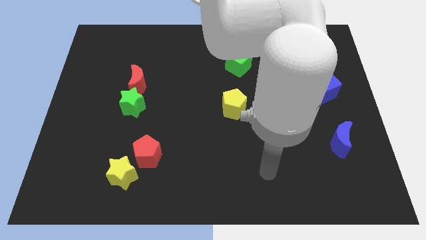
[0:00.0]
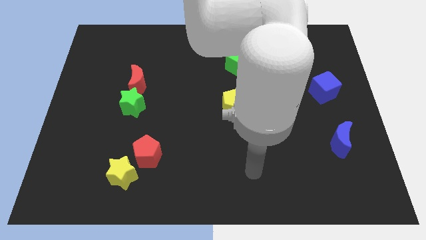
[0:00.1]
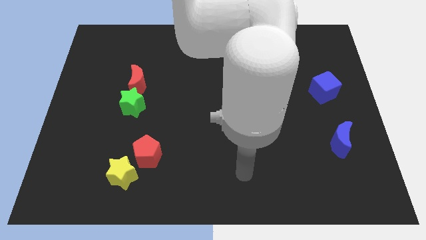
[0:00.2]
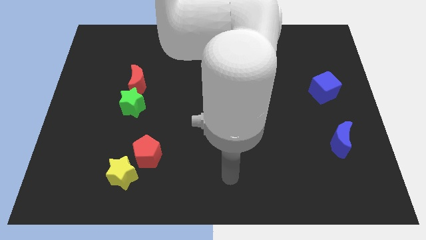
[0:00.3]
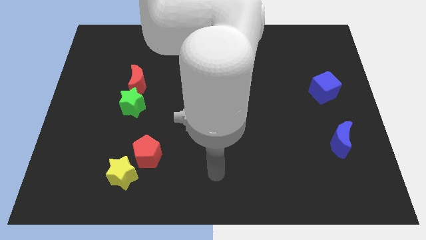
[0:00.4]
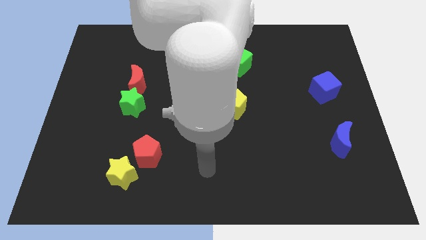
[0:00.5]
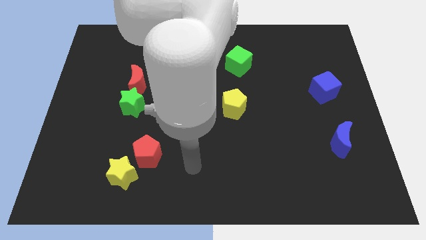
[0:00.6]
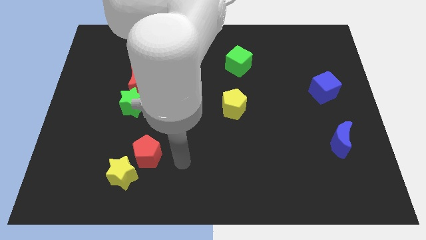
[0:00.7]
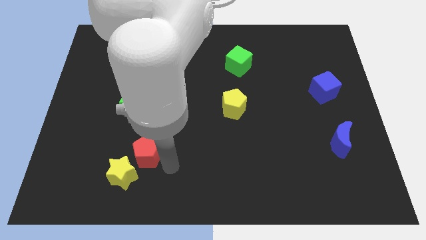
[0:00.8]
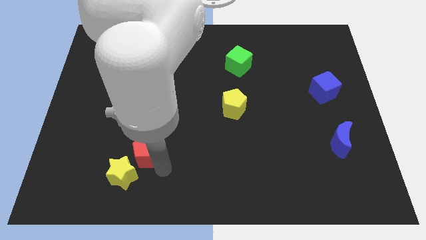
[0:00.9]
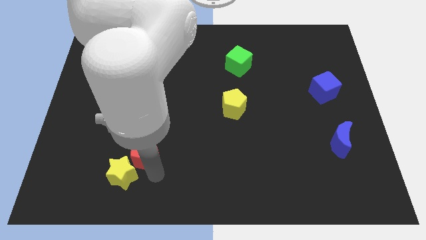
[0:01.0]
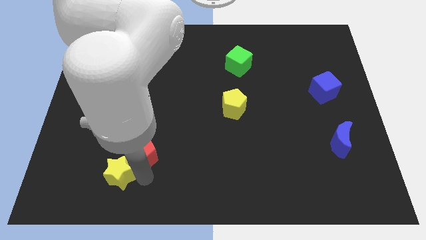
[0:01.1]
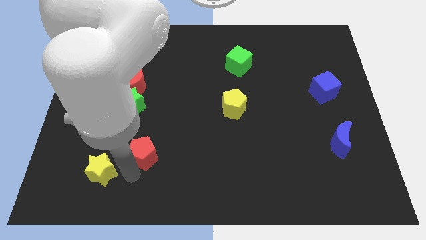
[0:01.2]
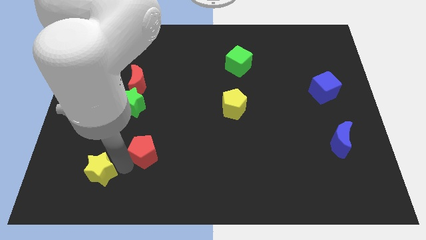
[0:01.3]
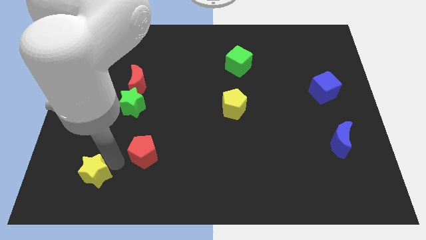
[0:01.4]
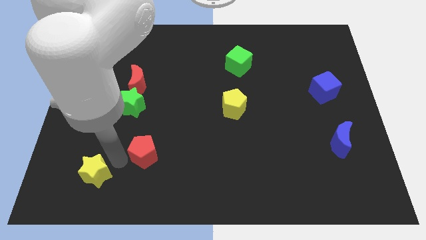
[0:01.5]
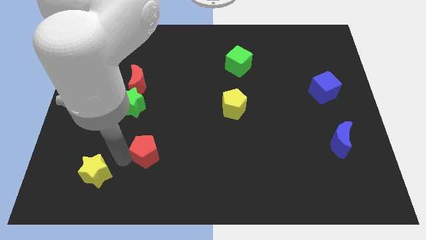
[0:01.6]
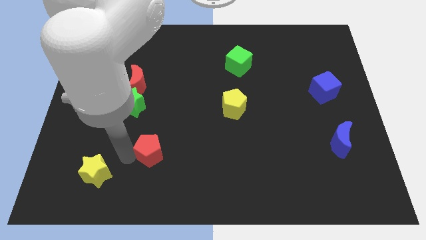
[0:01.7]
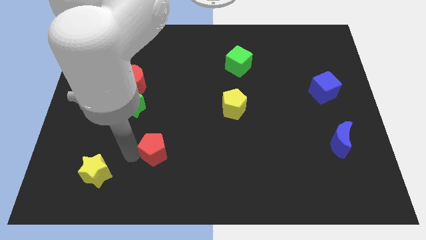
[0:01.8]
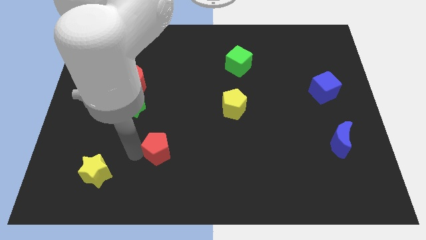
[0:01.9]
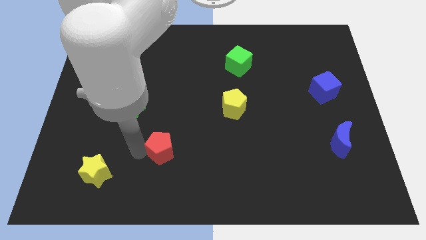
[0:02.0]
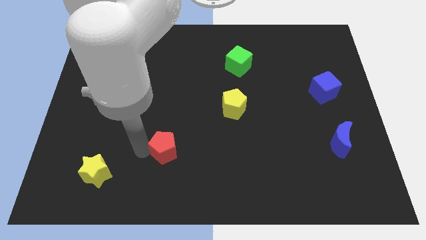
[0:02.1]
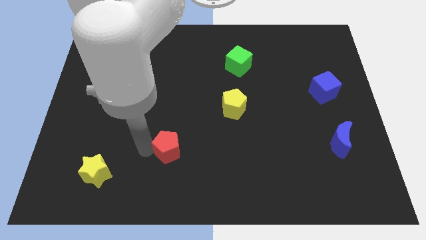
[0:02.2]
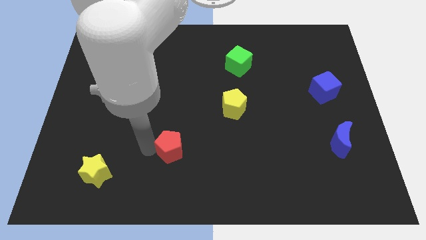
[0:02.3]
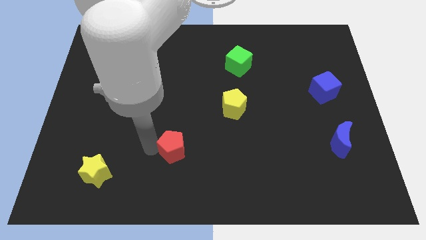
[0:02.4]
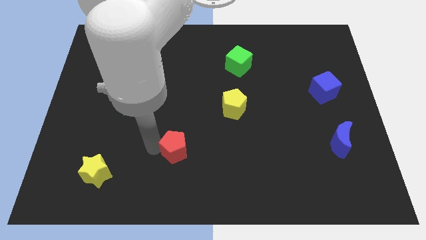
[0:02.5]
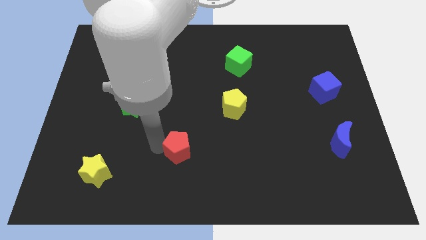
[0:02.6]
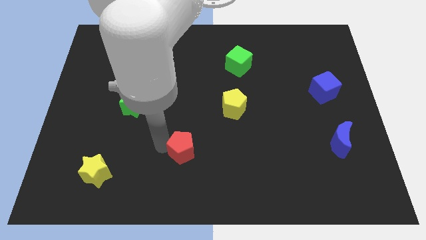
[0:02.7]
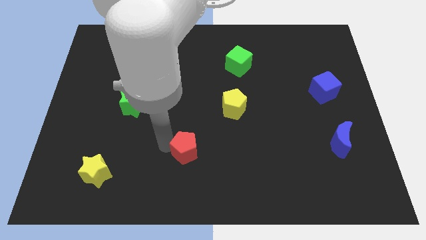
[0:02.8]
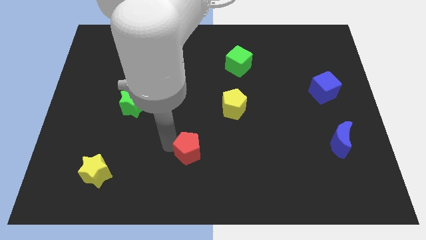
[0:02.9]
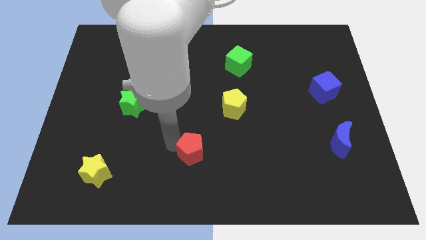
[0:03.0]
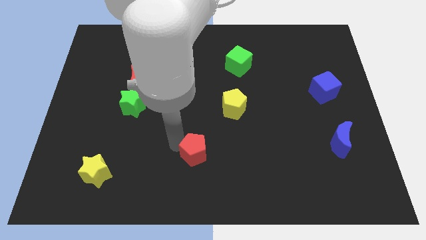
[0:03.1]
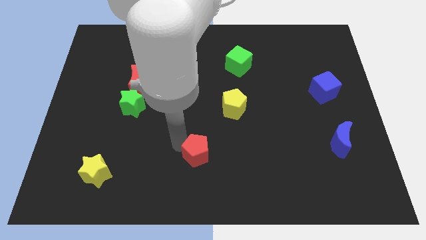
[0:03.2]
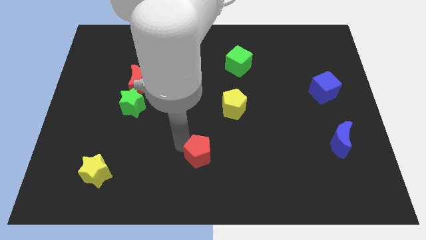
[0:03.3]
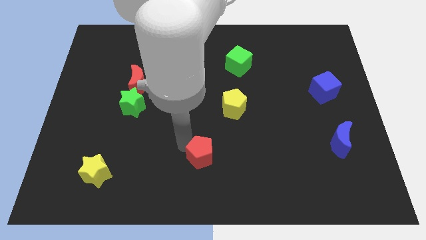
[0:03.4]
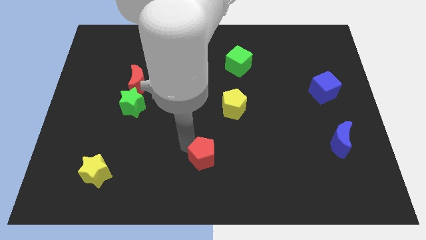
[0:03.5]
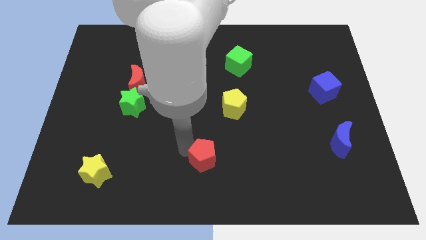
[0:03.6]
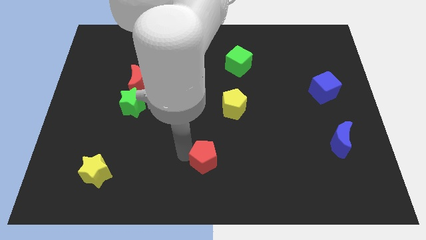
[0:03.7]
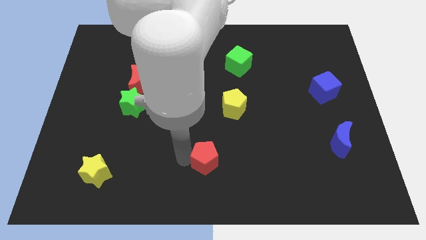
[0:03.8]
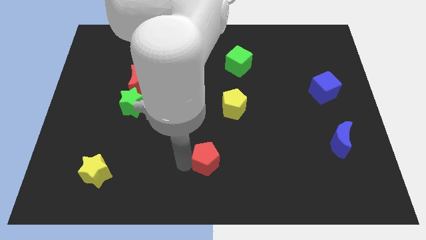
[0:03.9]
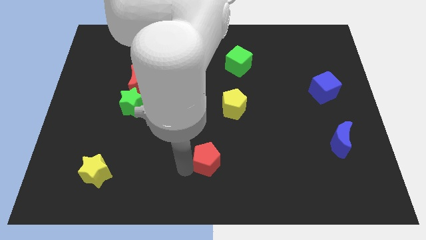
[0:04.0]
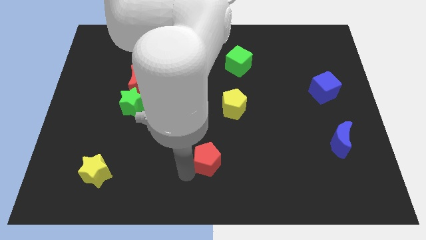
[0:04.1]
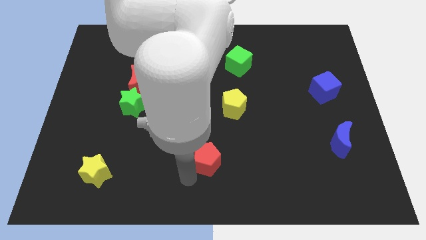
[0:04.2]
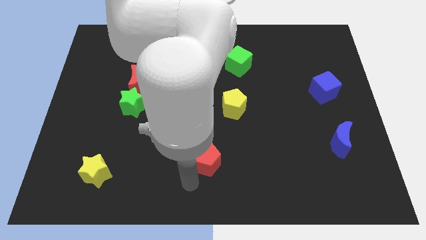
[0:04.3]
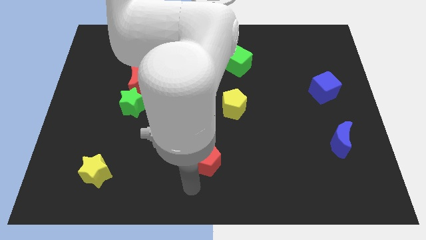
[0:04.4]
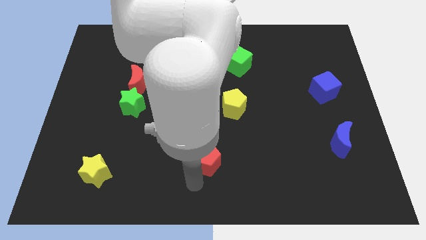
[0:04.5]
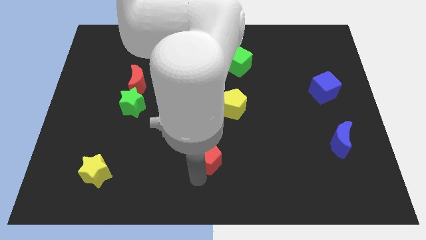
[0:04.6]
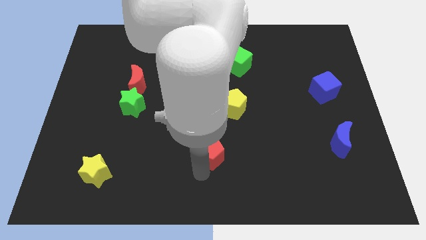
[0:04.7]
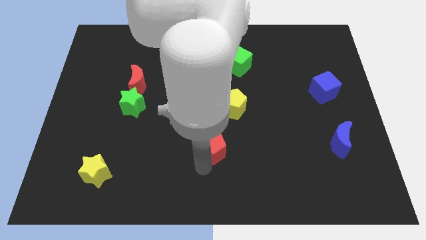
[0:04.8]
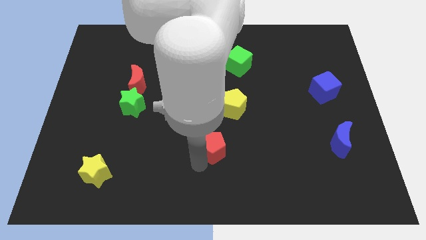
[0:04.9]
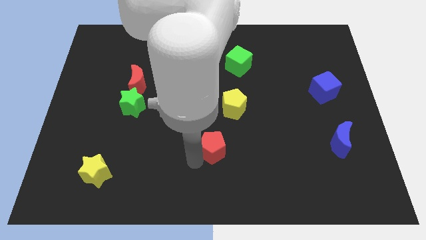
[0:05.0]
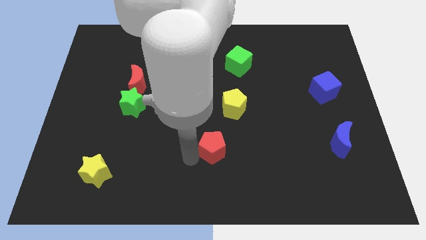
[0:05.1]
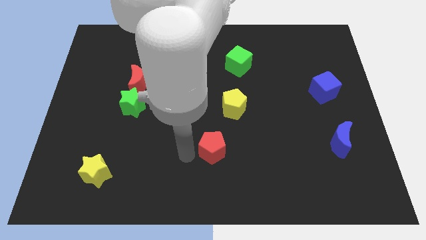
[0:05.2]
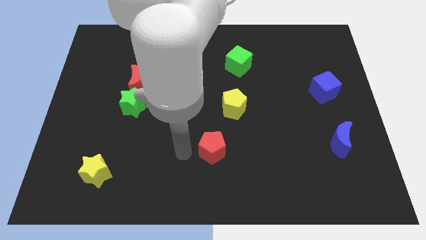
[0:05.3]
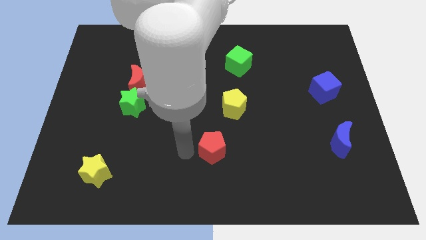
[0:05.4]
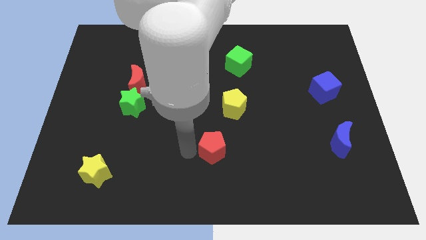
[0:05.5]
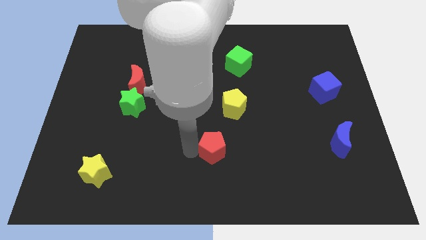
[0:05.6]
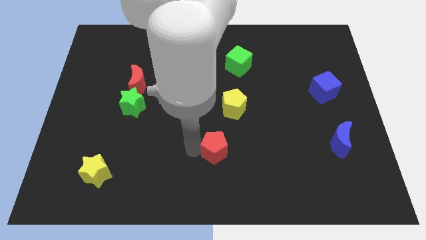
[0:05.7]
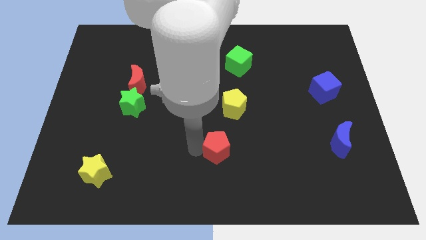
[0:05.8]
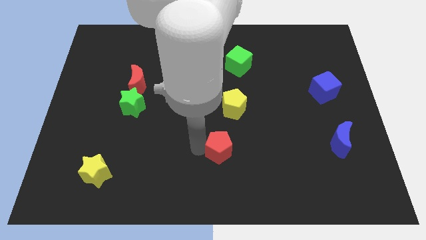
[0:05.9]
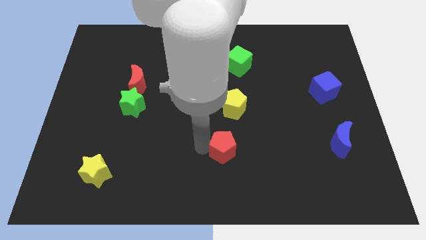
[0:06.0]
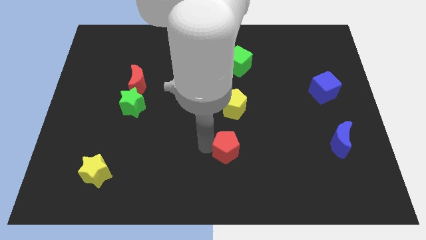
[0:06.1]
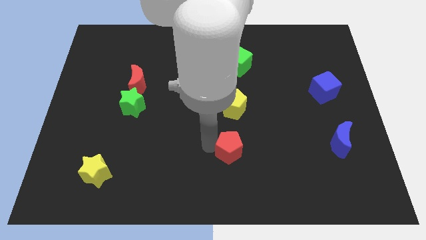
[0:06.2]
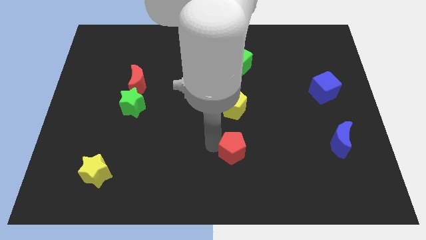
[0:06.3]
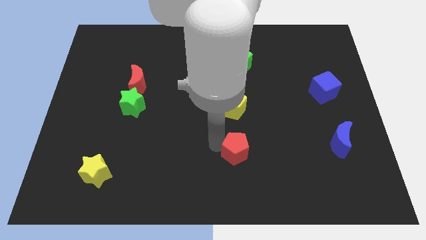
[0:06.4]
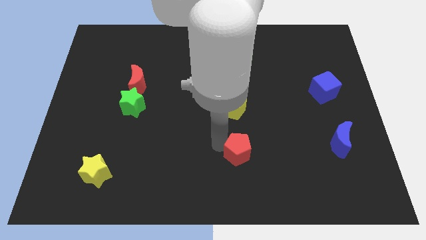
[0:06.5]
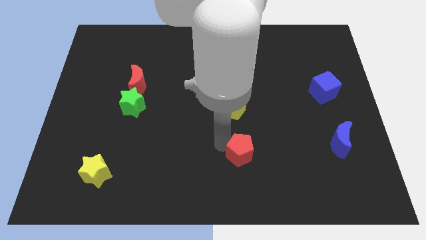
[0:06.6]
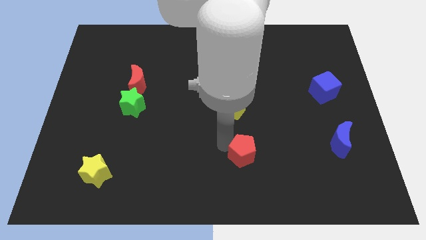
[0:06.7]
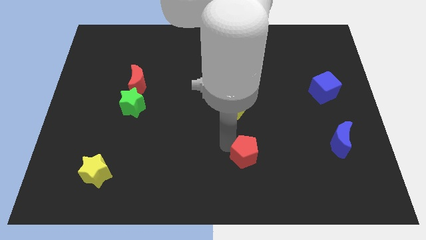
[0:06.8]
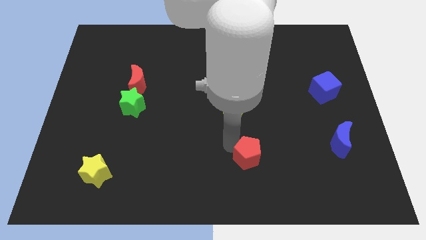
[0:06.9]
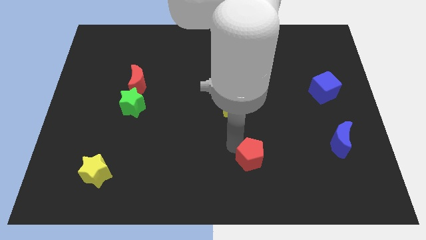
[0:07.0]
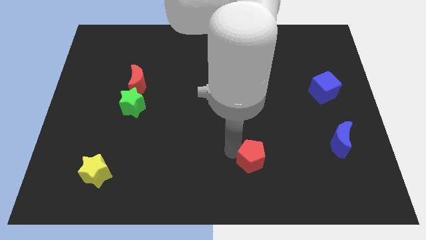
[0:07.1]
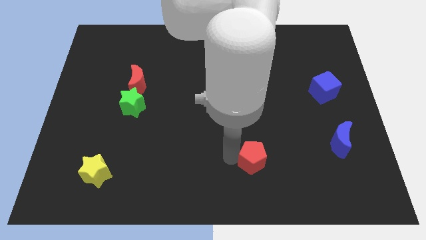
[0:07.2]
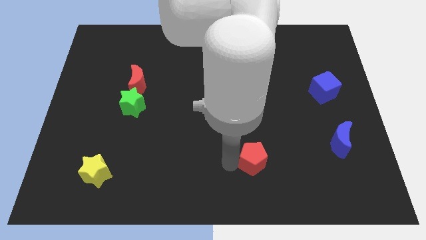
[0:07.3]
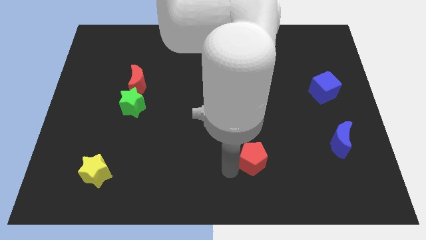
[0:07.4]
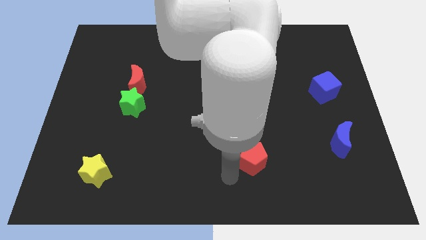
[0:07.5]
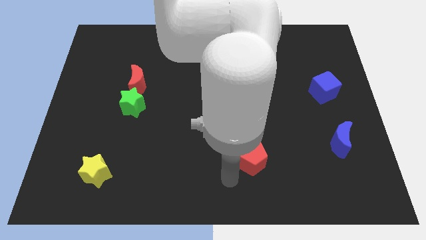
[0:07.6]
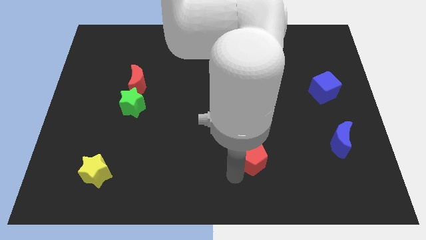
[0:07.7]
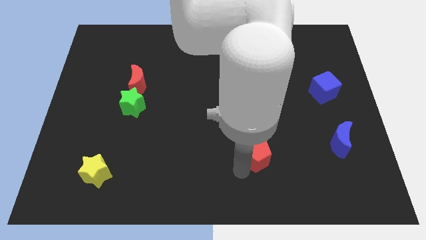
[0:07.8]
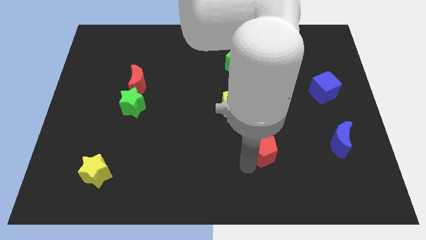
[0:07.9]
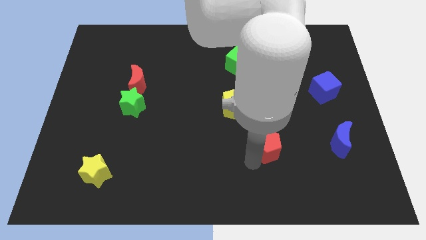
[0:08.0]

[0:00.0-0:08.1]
move the red pentagon to the left side of the blue moon
